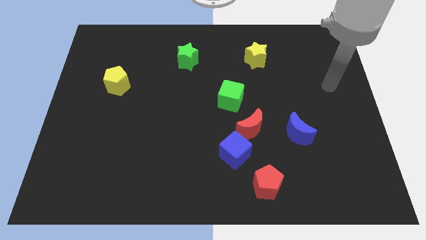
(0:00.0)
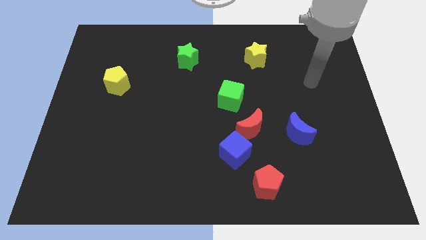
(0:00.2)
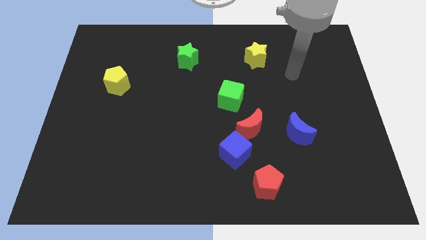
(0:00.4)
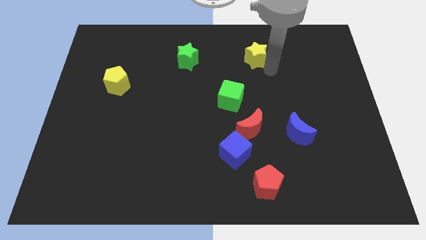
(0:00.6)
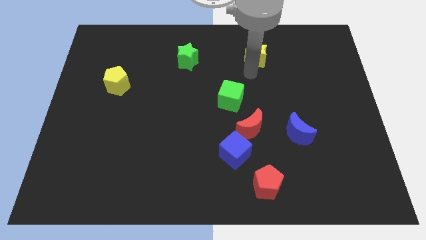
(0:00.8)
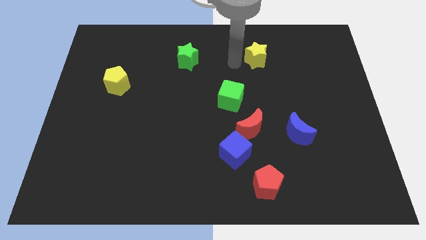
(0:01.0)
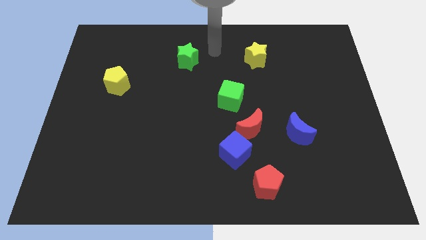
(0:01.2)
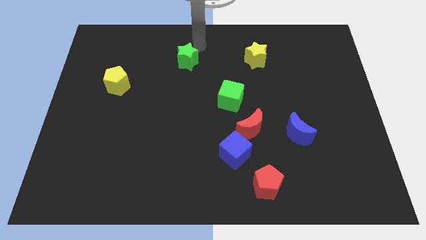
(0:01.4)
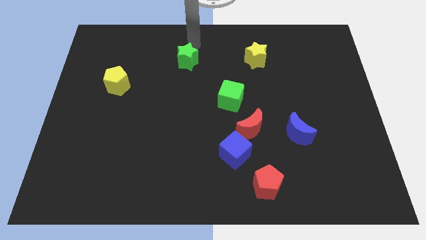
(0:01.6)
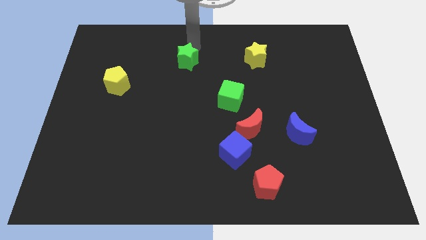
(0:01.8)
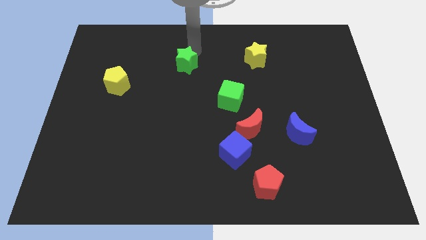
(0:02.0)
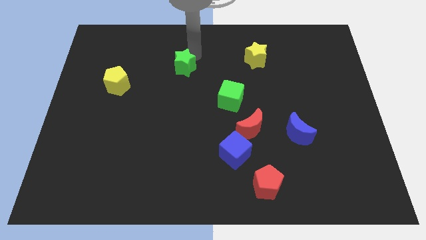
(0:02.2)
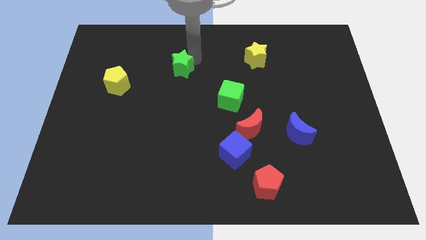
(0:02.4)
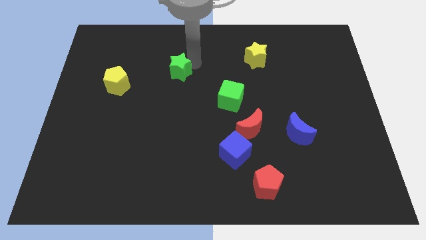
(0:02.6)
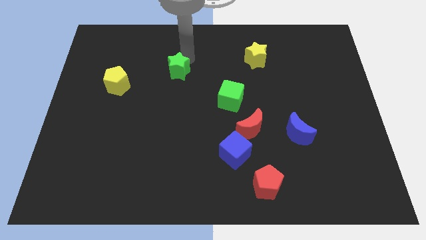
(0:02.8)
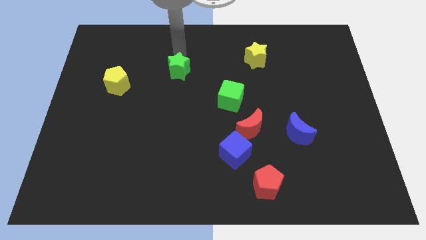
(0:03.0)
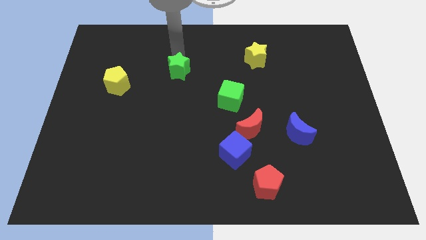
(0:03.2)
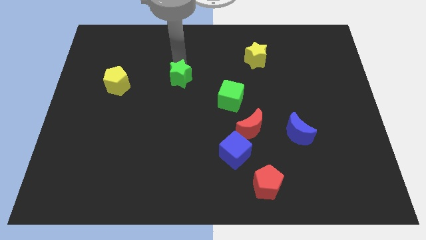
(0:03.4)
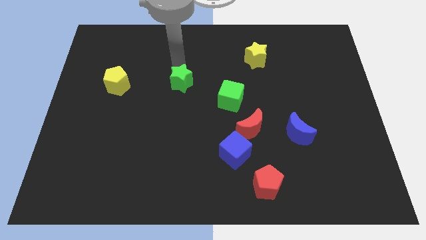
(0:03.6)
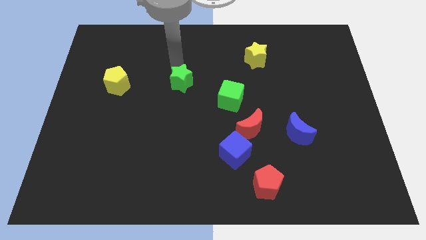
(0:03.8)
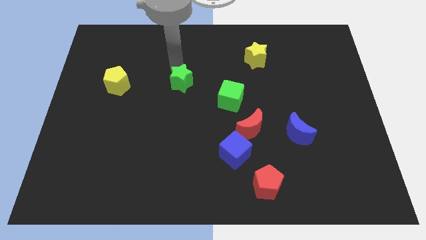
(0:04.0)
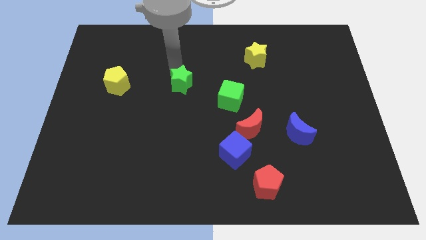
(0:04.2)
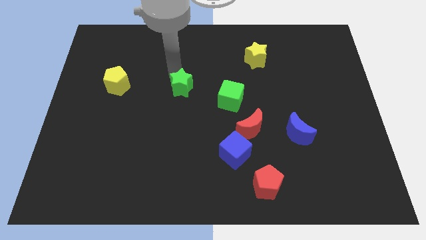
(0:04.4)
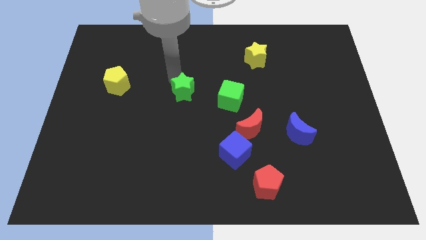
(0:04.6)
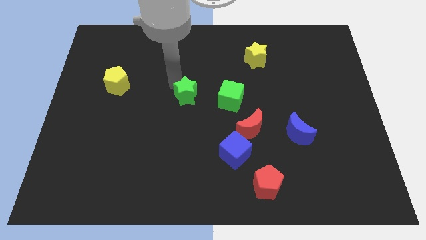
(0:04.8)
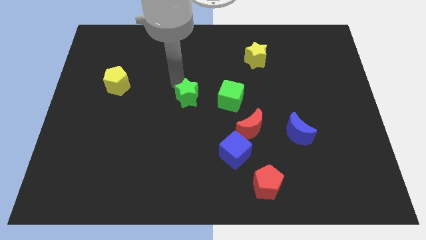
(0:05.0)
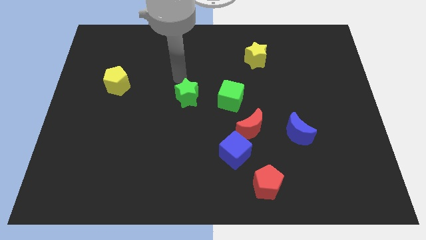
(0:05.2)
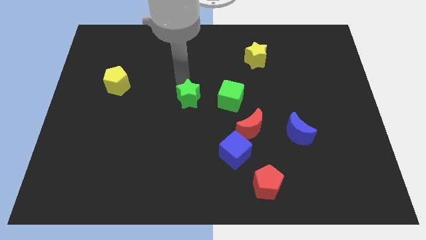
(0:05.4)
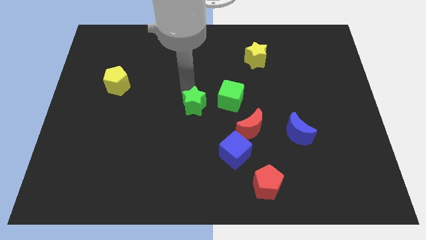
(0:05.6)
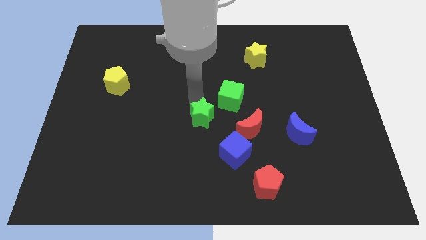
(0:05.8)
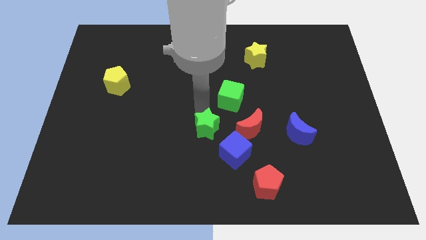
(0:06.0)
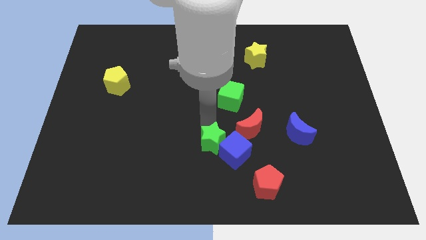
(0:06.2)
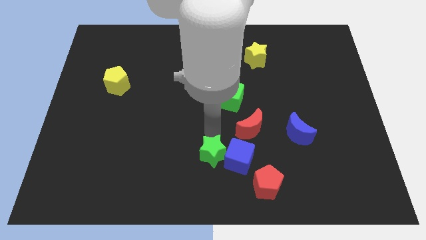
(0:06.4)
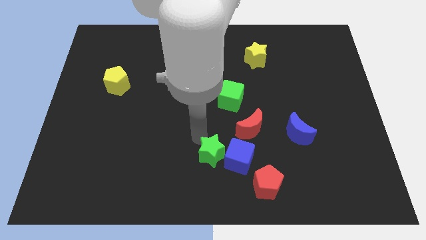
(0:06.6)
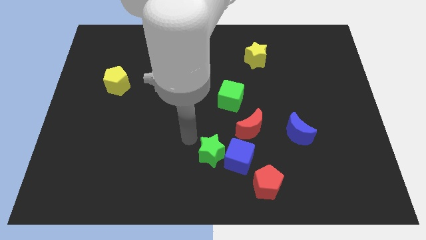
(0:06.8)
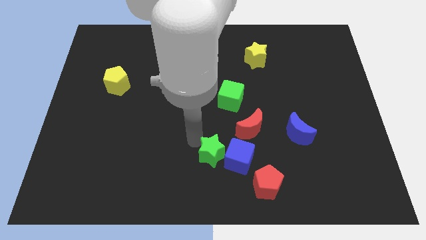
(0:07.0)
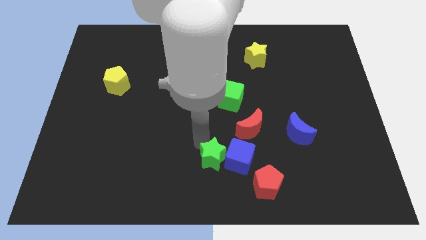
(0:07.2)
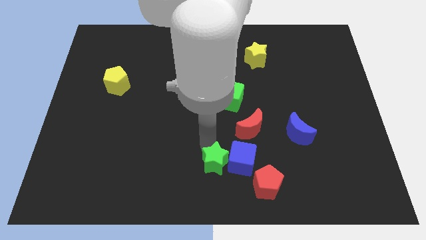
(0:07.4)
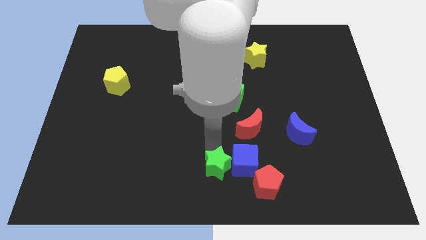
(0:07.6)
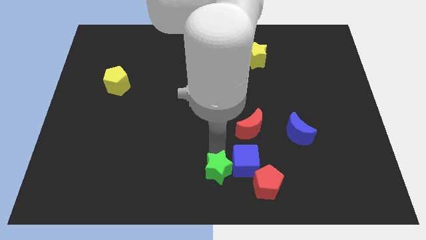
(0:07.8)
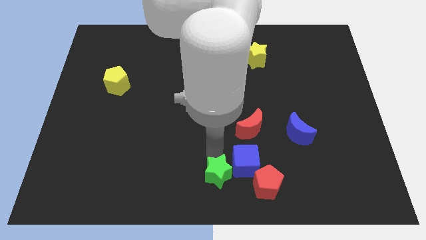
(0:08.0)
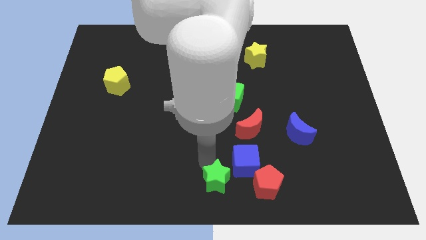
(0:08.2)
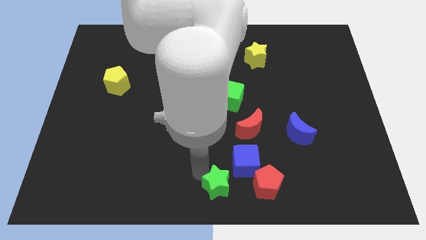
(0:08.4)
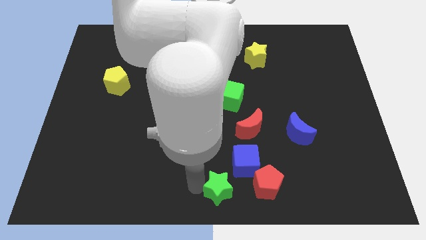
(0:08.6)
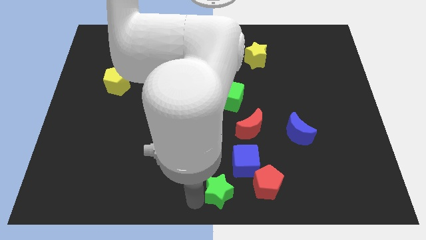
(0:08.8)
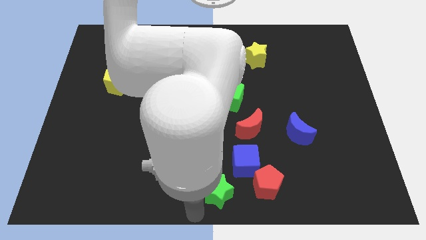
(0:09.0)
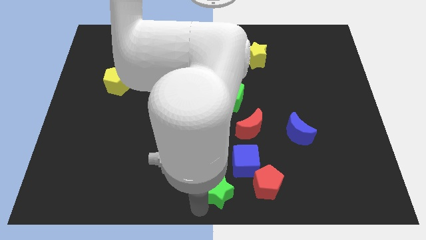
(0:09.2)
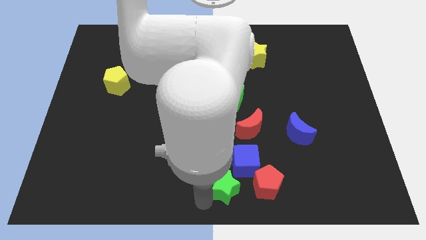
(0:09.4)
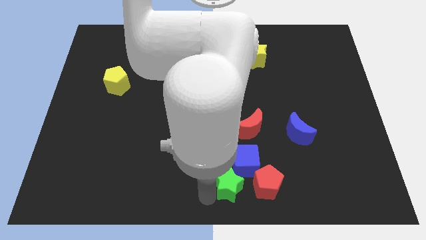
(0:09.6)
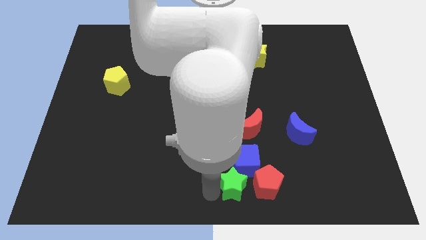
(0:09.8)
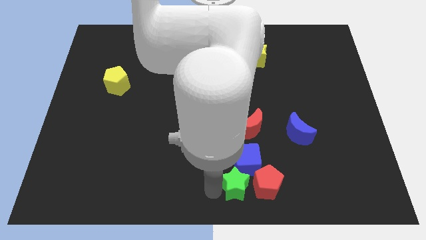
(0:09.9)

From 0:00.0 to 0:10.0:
slide the green star next to the red pentagon

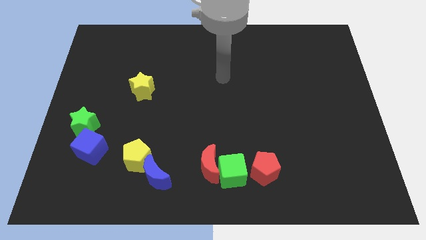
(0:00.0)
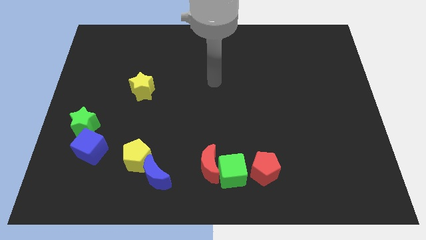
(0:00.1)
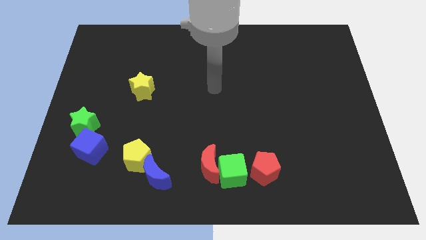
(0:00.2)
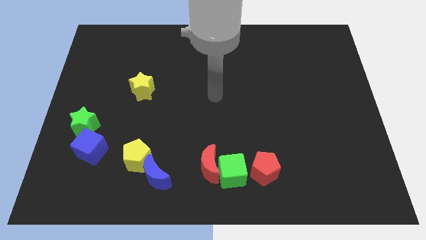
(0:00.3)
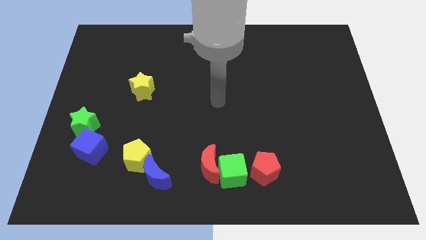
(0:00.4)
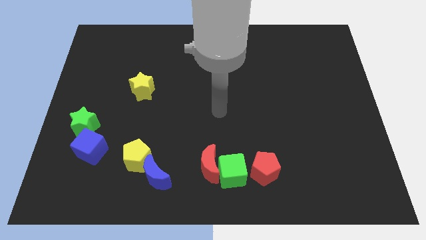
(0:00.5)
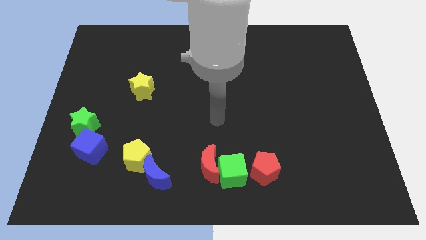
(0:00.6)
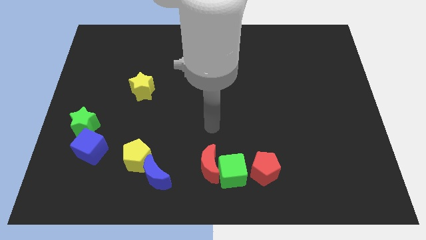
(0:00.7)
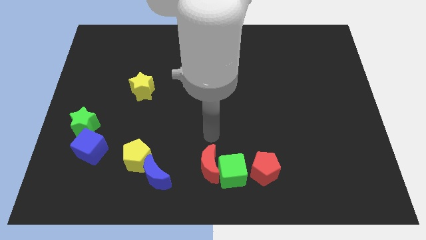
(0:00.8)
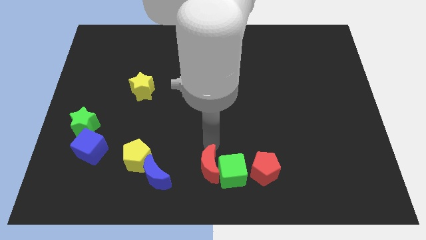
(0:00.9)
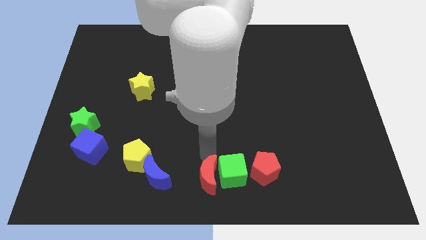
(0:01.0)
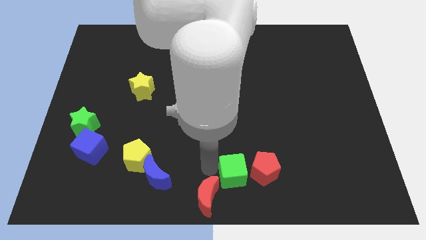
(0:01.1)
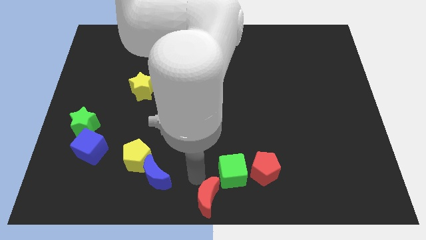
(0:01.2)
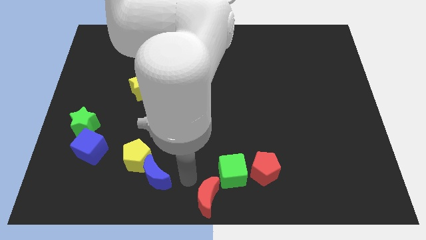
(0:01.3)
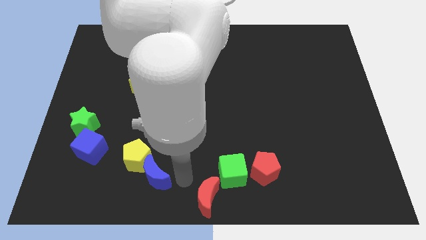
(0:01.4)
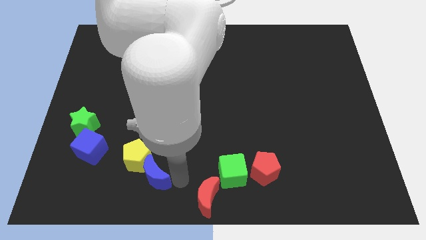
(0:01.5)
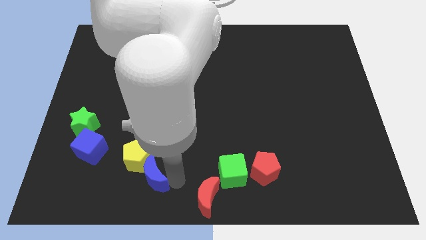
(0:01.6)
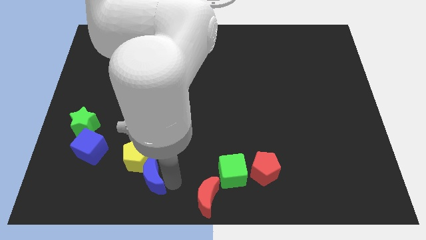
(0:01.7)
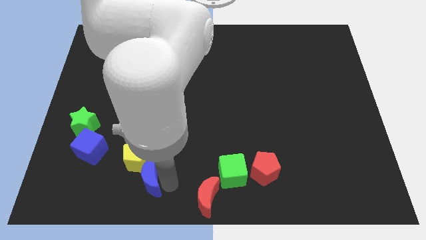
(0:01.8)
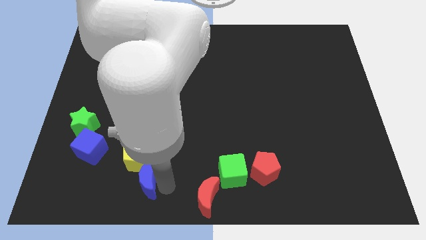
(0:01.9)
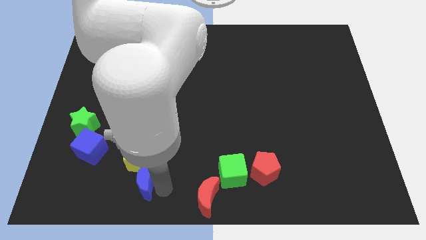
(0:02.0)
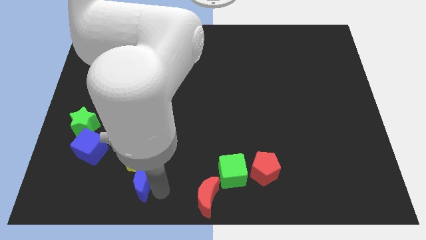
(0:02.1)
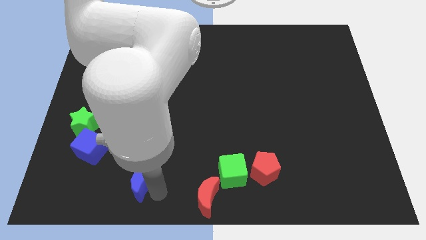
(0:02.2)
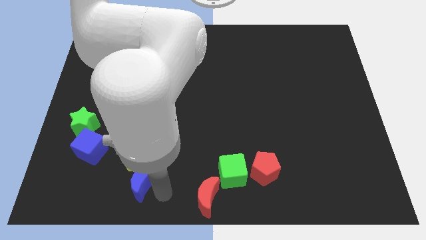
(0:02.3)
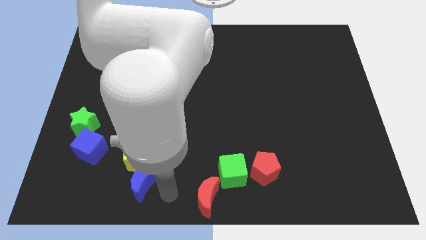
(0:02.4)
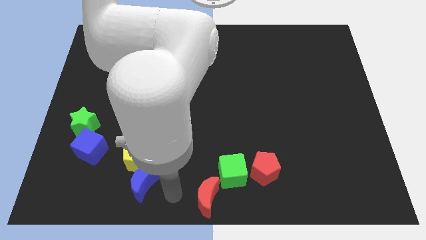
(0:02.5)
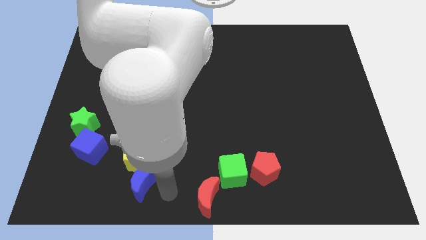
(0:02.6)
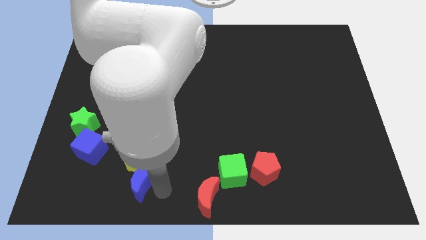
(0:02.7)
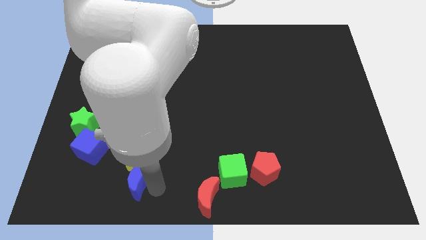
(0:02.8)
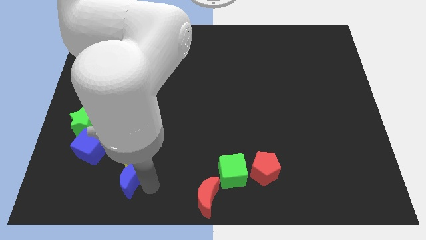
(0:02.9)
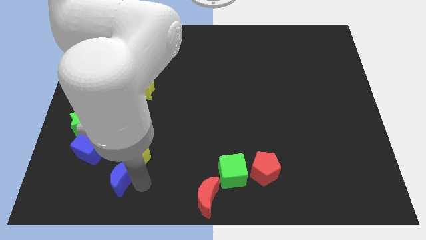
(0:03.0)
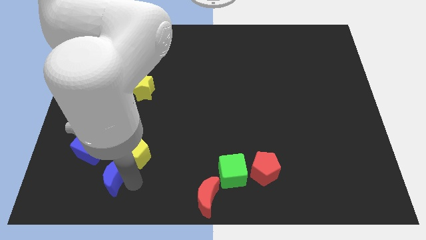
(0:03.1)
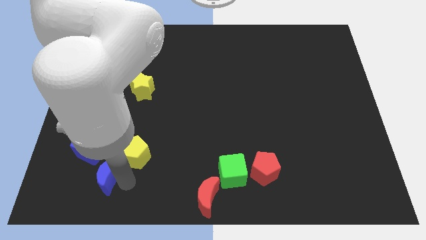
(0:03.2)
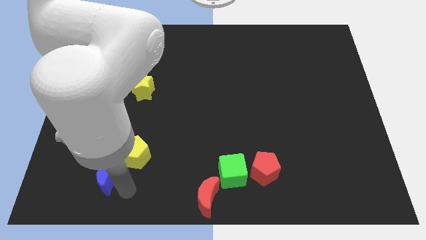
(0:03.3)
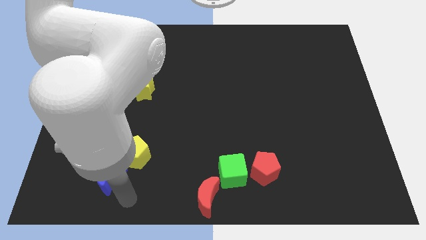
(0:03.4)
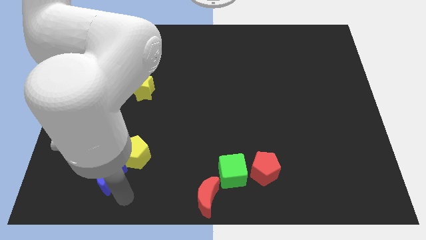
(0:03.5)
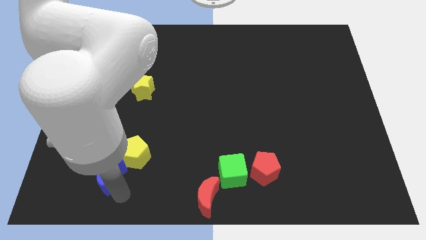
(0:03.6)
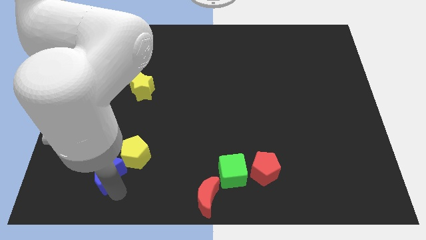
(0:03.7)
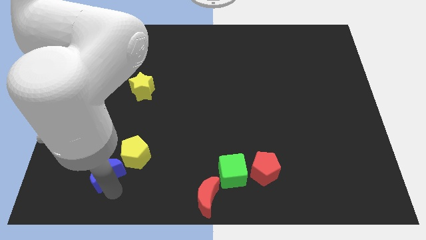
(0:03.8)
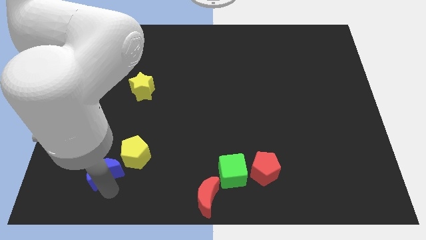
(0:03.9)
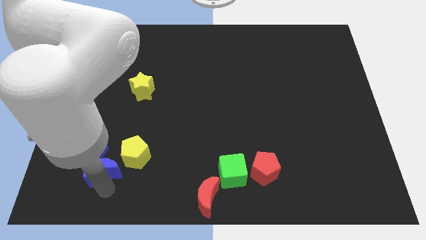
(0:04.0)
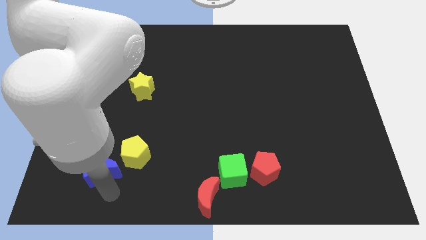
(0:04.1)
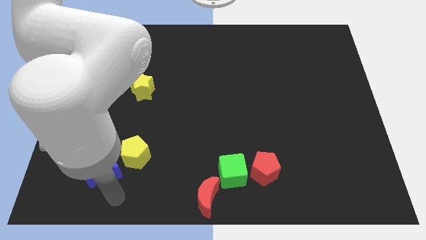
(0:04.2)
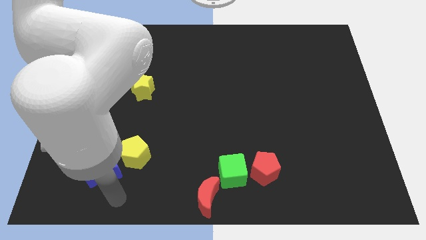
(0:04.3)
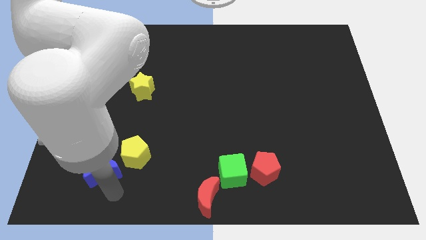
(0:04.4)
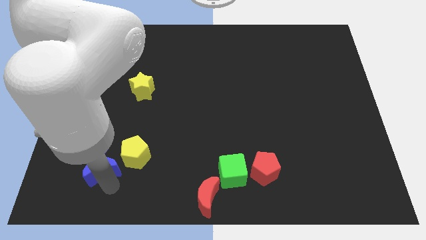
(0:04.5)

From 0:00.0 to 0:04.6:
push the blue moon to the blue cube
